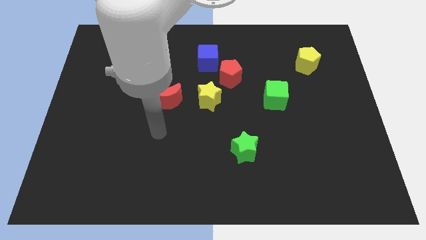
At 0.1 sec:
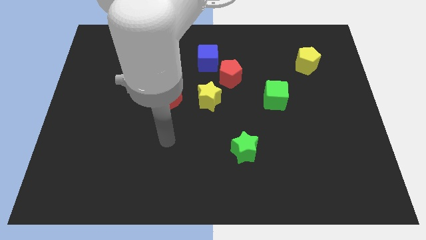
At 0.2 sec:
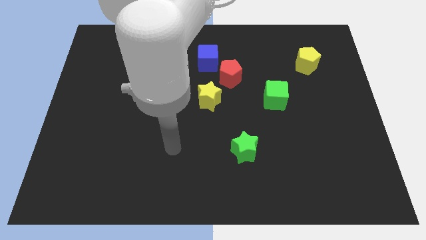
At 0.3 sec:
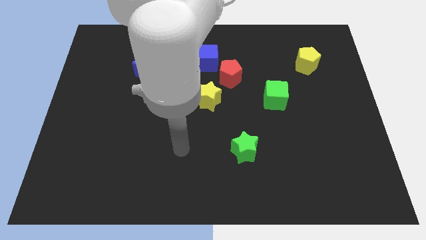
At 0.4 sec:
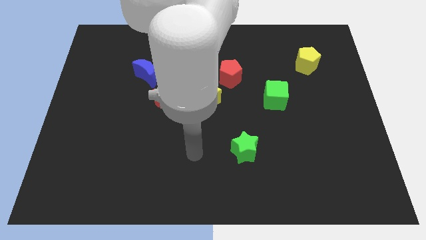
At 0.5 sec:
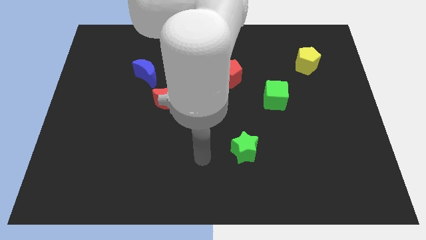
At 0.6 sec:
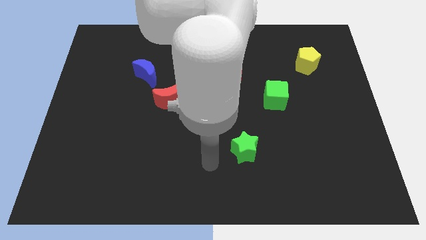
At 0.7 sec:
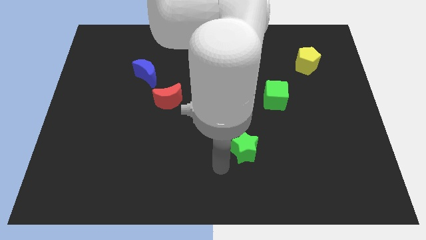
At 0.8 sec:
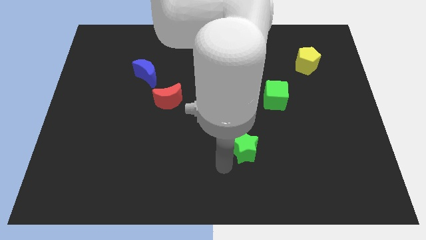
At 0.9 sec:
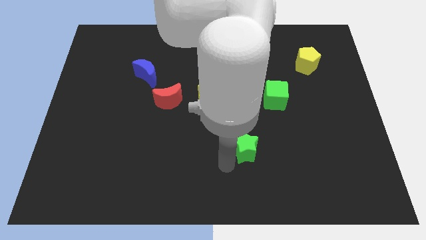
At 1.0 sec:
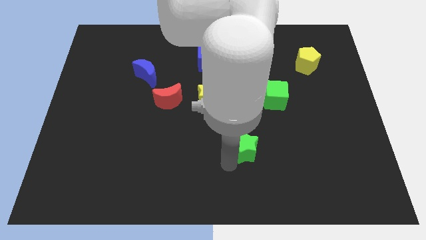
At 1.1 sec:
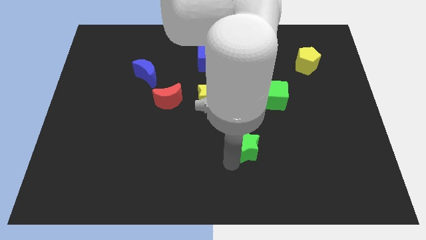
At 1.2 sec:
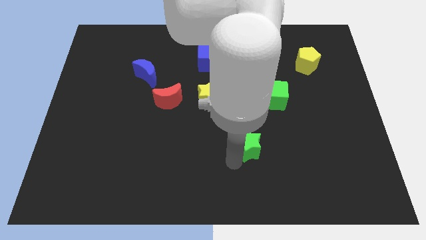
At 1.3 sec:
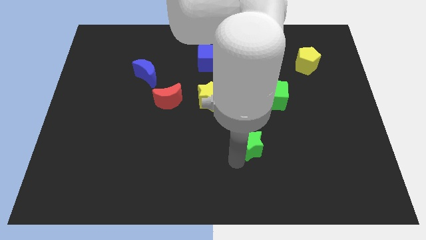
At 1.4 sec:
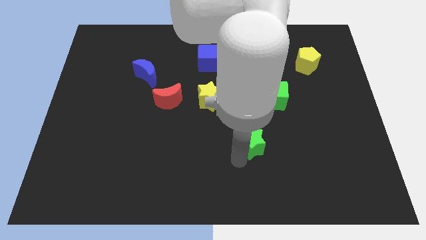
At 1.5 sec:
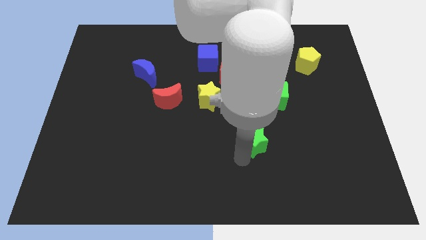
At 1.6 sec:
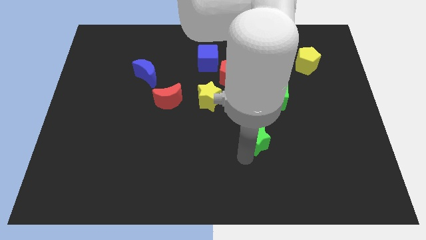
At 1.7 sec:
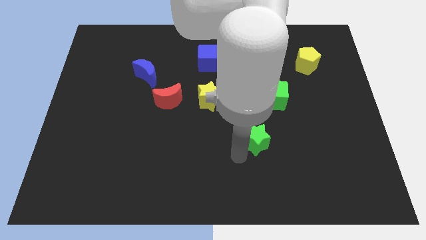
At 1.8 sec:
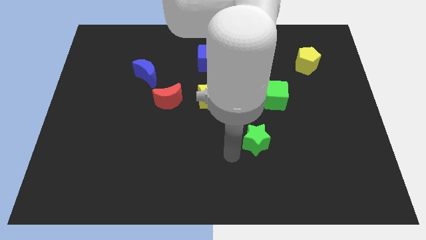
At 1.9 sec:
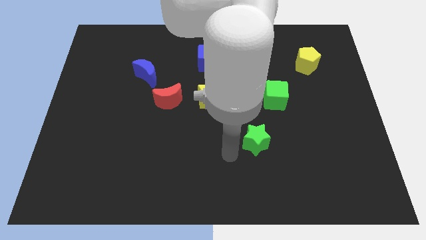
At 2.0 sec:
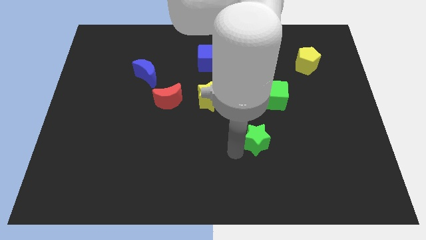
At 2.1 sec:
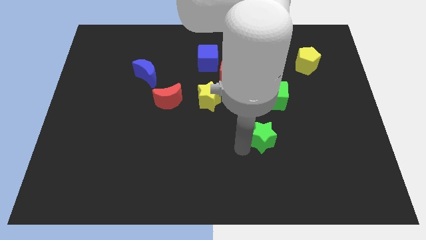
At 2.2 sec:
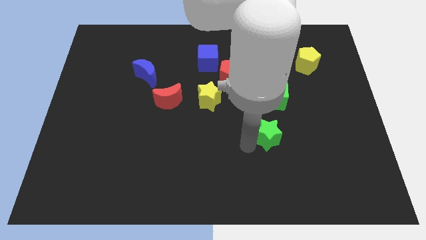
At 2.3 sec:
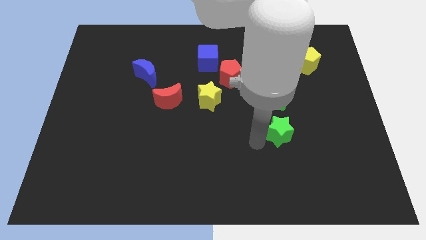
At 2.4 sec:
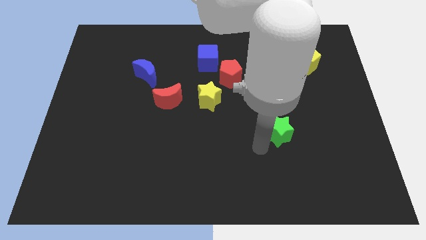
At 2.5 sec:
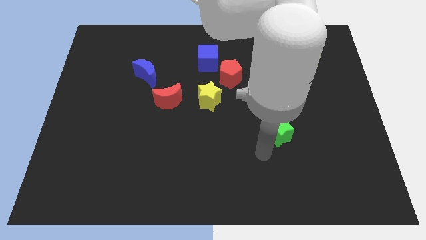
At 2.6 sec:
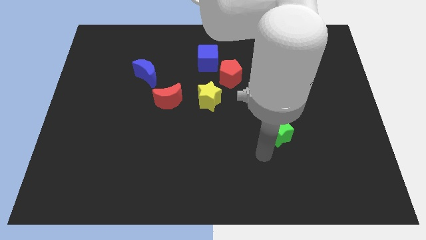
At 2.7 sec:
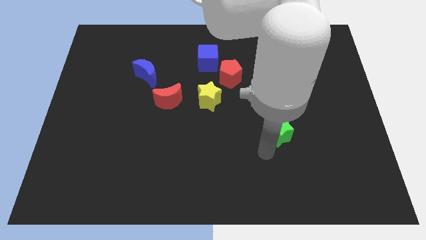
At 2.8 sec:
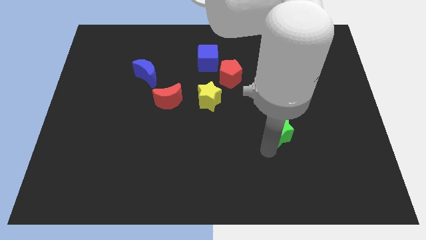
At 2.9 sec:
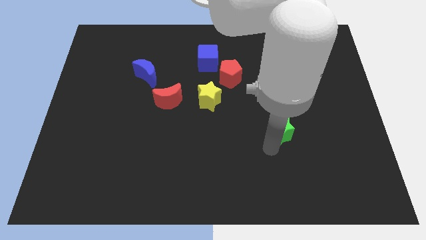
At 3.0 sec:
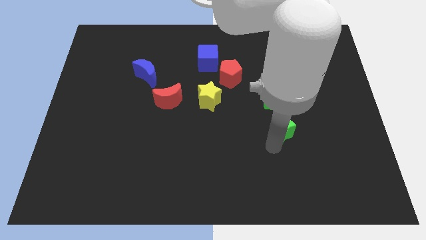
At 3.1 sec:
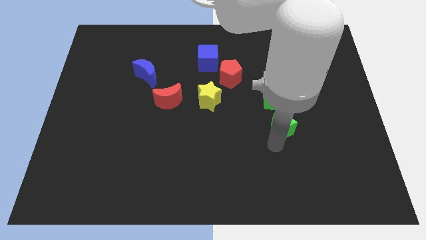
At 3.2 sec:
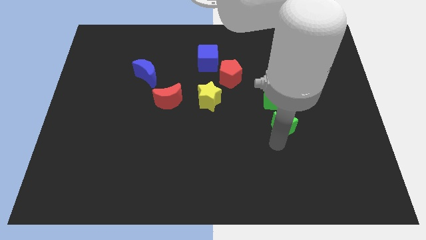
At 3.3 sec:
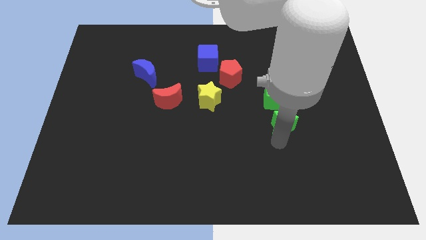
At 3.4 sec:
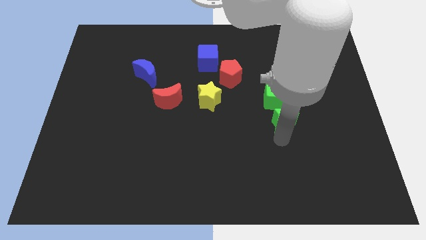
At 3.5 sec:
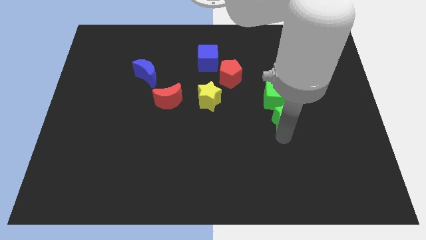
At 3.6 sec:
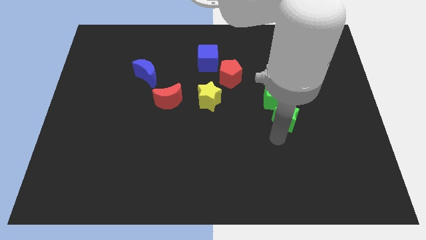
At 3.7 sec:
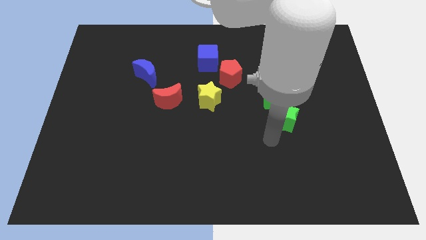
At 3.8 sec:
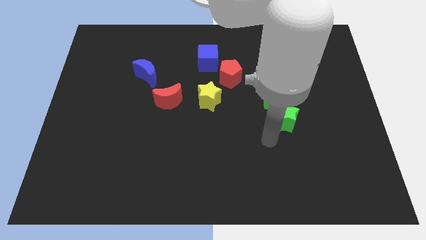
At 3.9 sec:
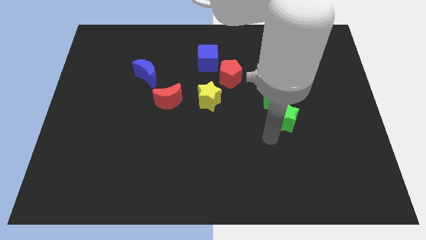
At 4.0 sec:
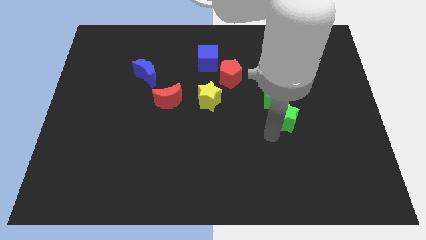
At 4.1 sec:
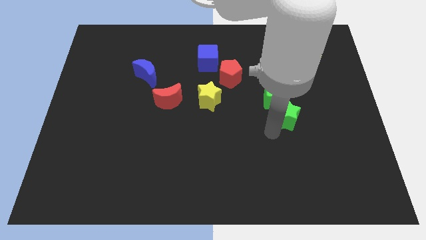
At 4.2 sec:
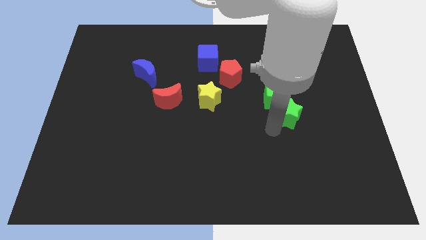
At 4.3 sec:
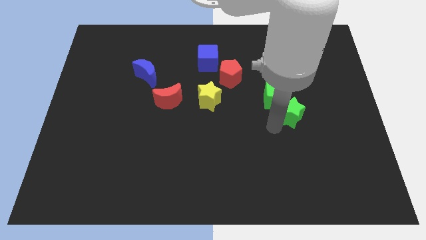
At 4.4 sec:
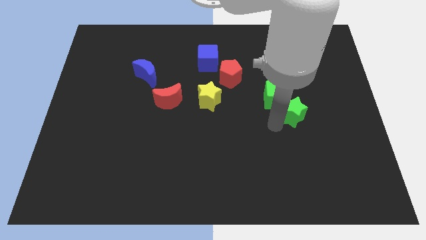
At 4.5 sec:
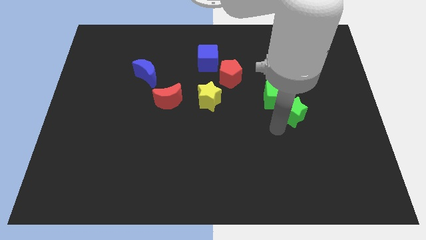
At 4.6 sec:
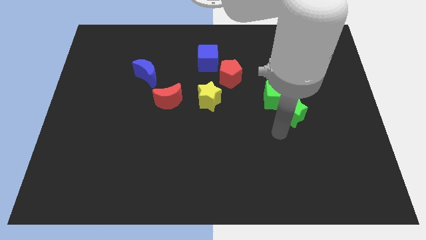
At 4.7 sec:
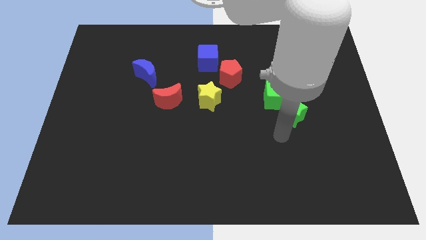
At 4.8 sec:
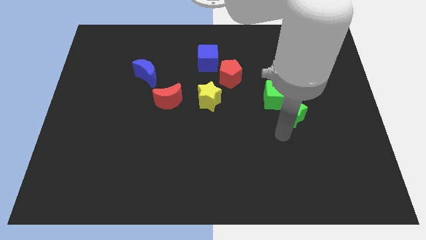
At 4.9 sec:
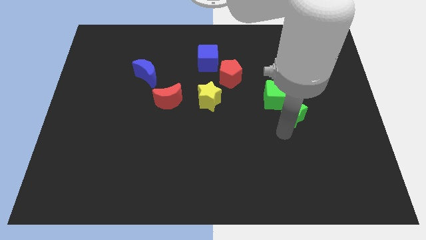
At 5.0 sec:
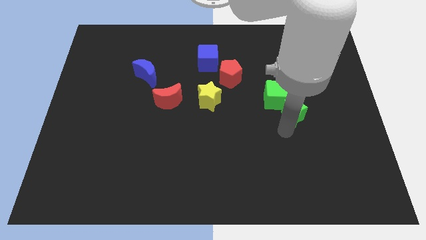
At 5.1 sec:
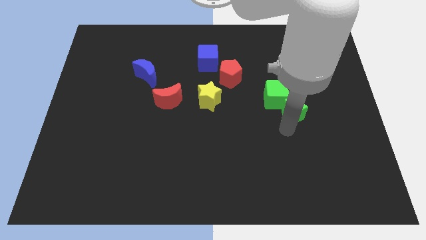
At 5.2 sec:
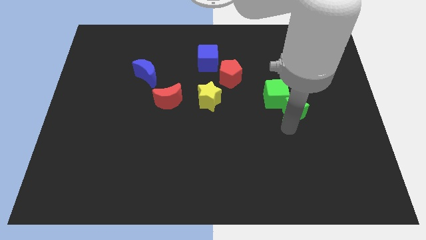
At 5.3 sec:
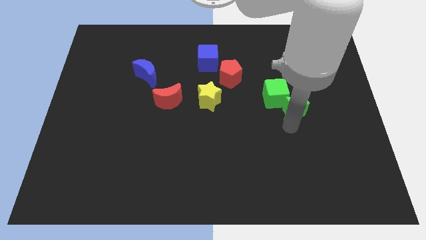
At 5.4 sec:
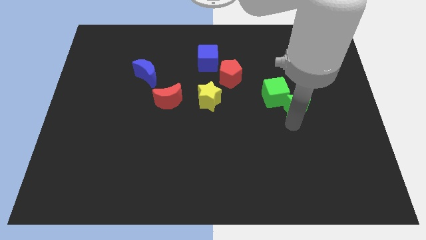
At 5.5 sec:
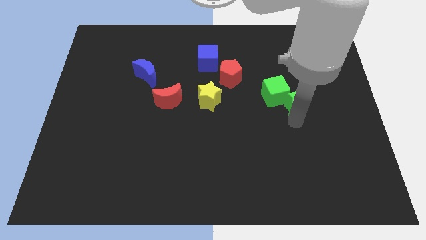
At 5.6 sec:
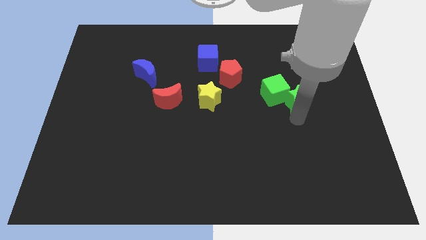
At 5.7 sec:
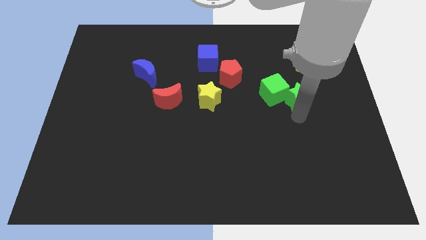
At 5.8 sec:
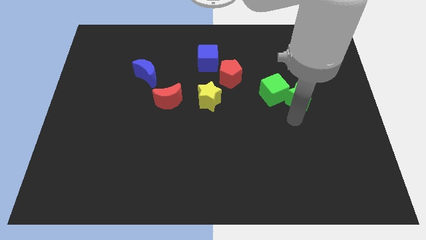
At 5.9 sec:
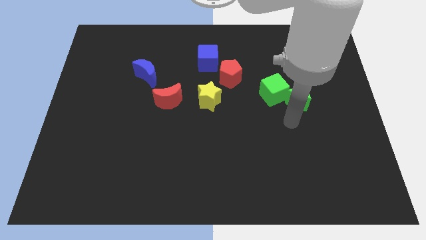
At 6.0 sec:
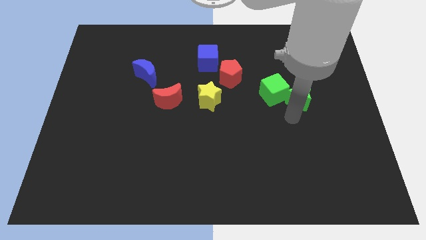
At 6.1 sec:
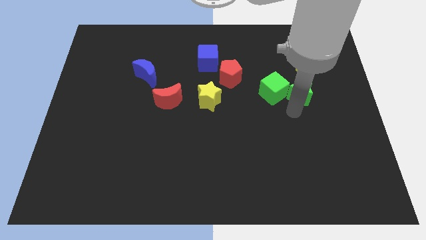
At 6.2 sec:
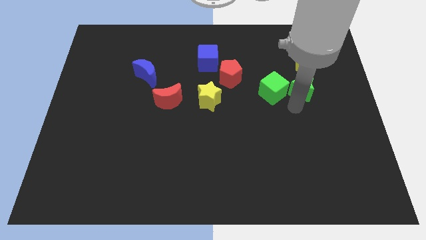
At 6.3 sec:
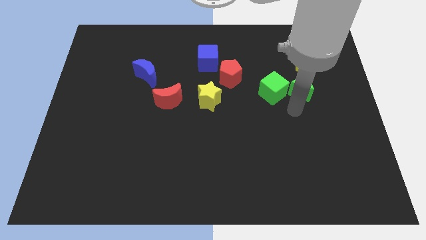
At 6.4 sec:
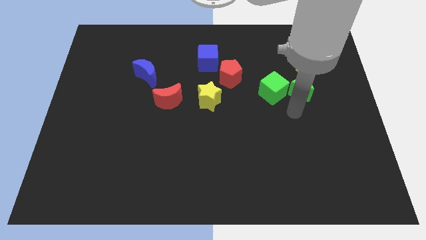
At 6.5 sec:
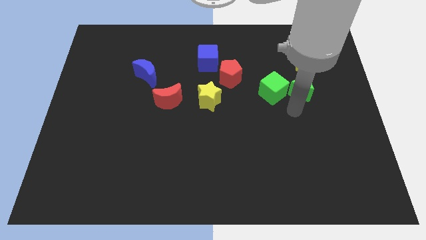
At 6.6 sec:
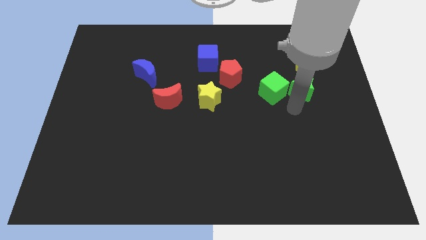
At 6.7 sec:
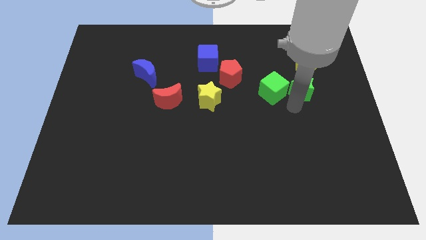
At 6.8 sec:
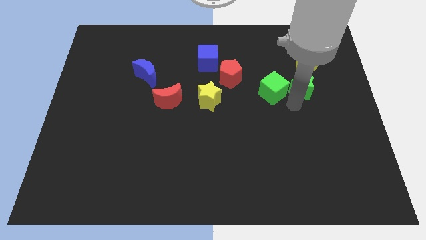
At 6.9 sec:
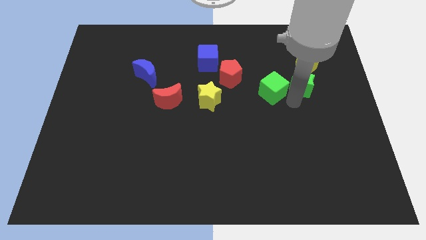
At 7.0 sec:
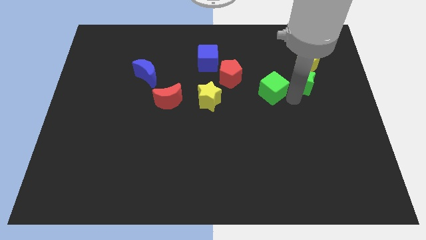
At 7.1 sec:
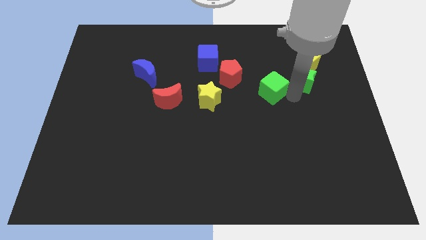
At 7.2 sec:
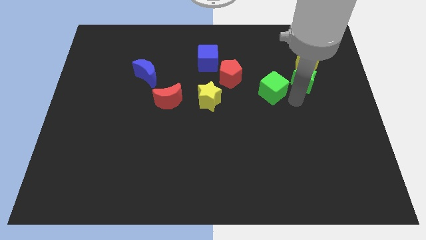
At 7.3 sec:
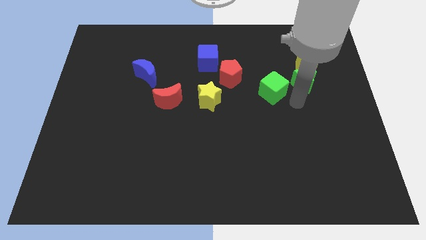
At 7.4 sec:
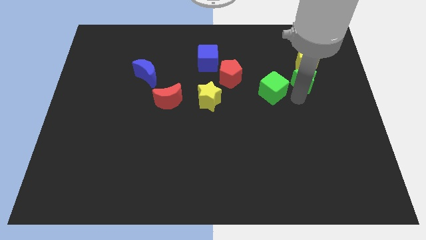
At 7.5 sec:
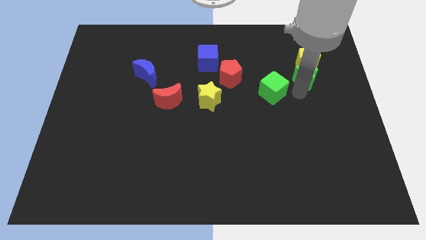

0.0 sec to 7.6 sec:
put the green star next to the yellow pentagon
